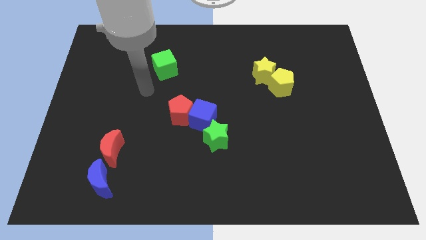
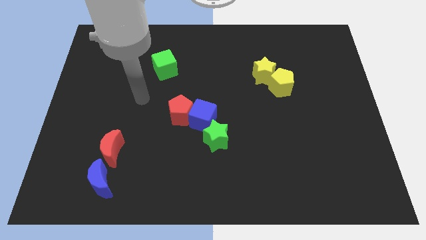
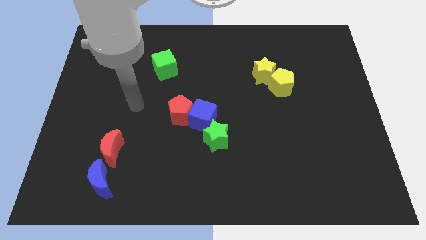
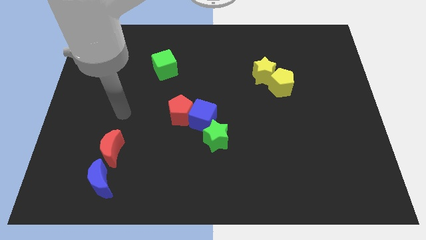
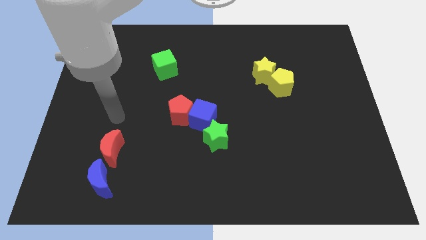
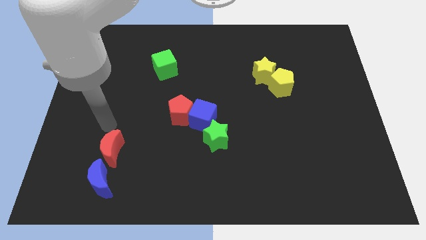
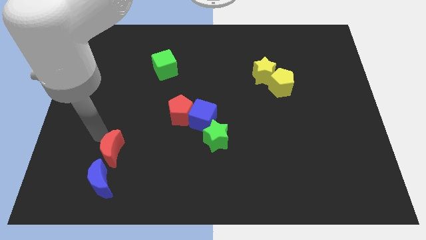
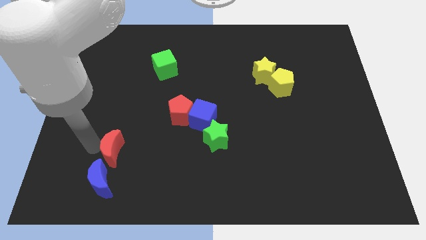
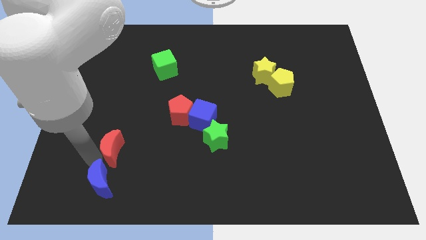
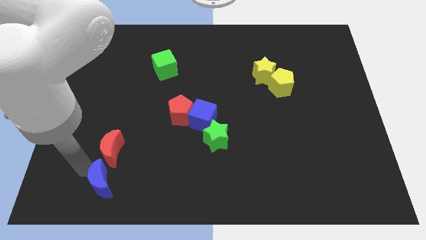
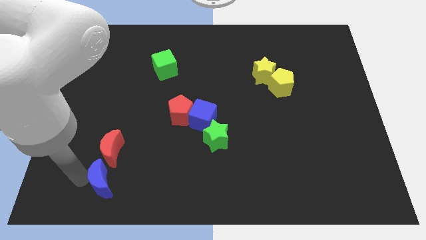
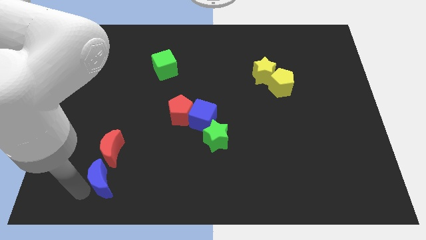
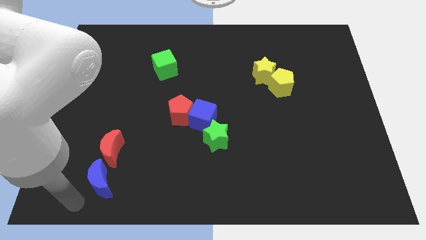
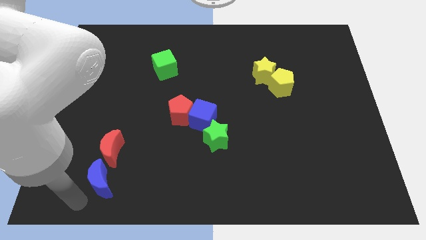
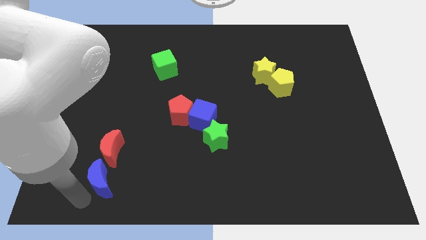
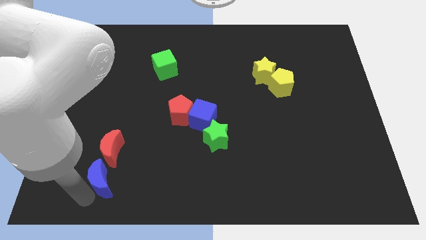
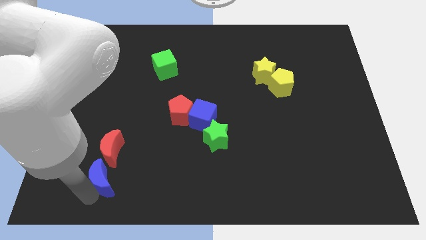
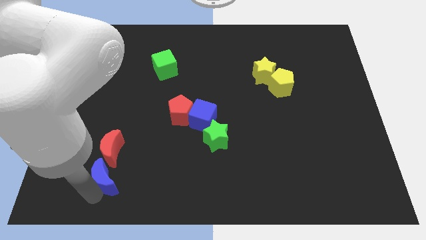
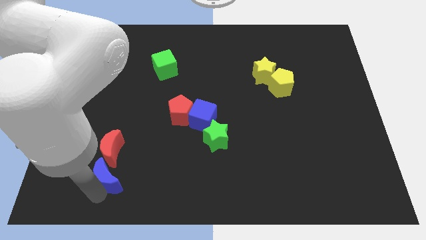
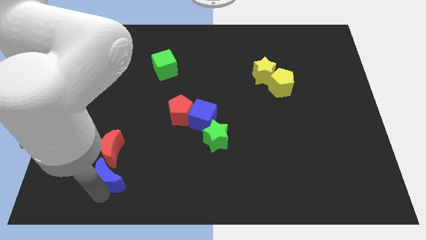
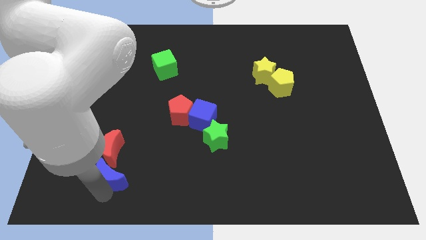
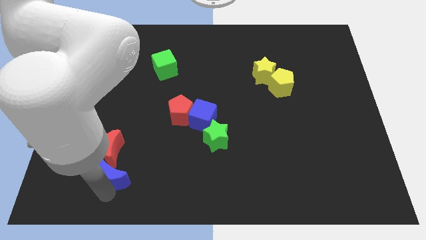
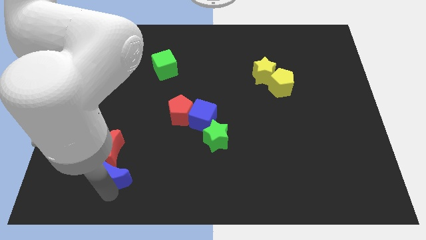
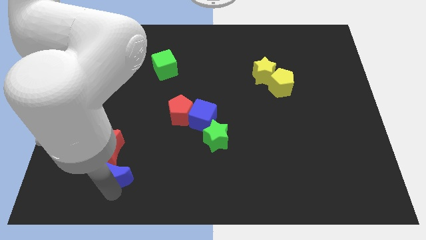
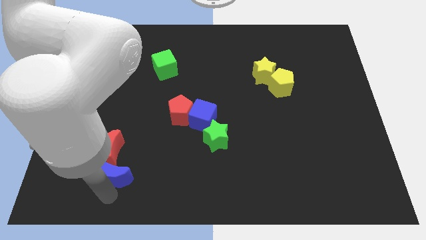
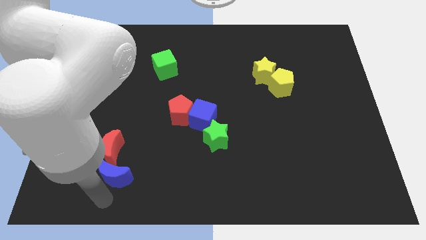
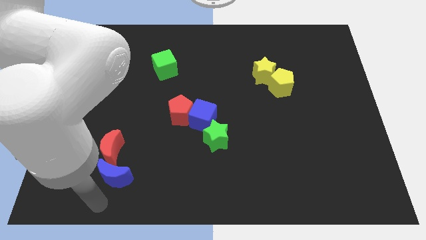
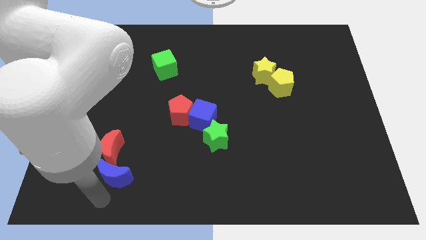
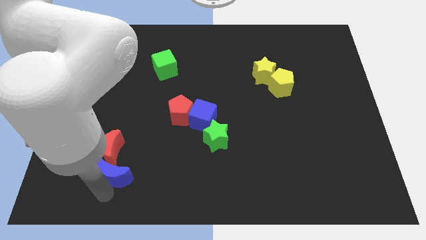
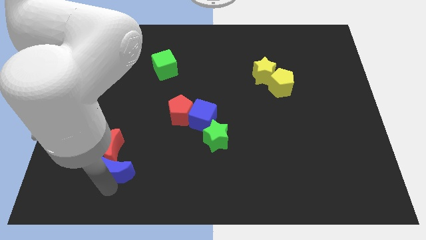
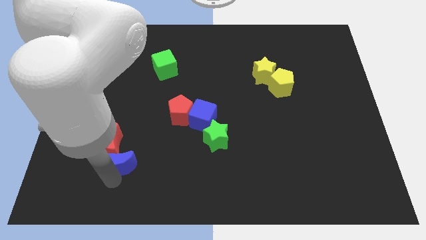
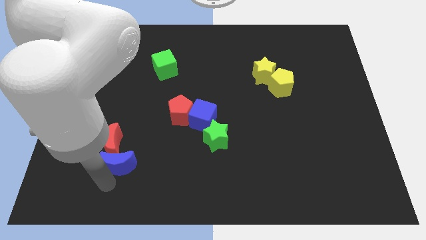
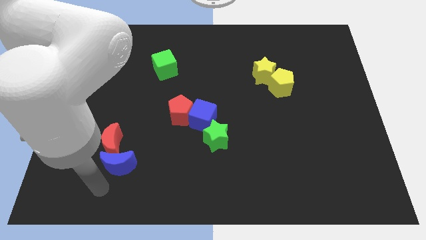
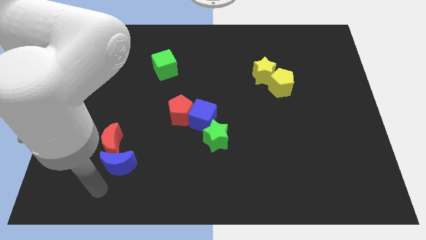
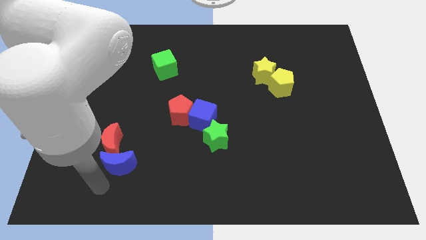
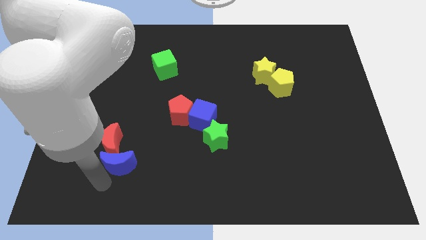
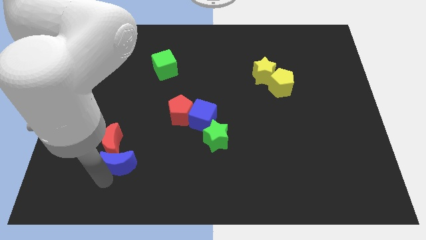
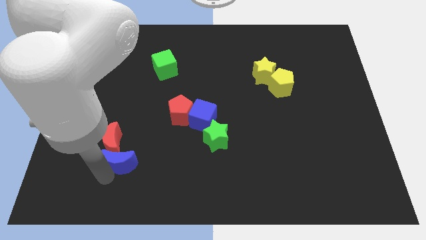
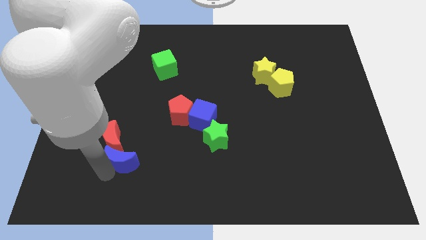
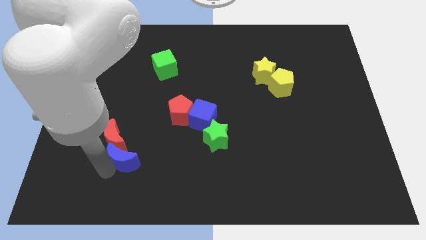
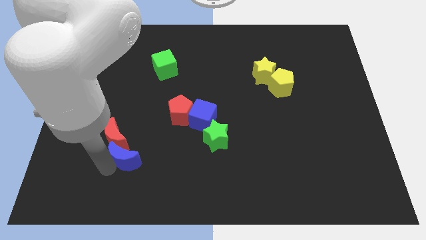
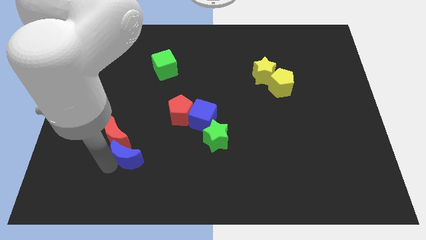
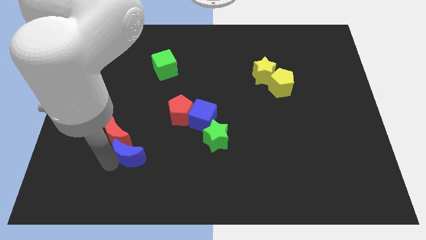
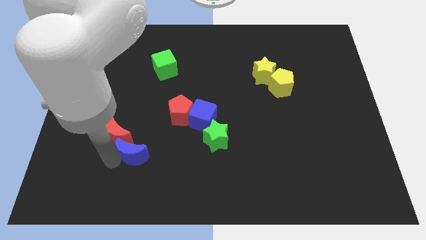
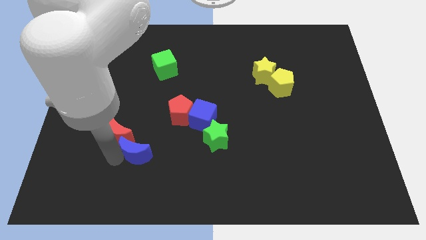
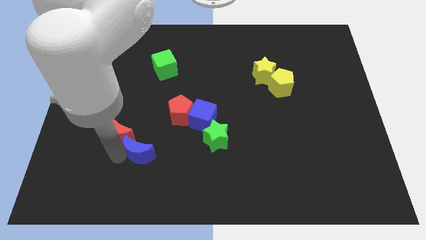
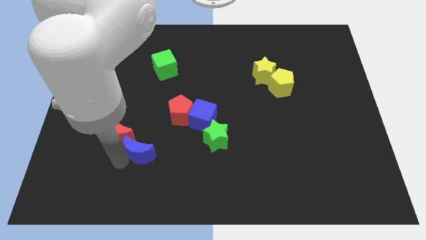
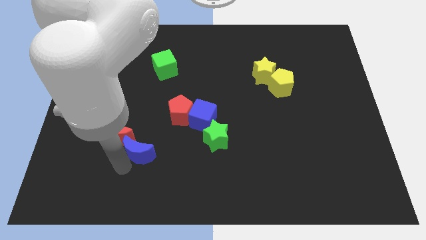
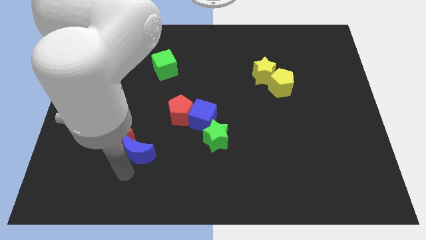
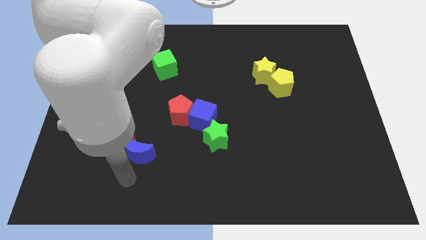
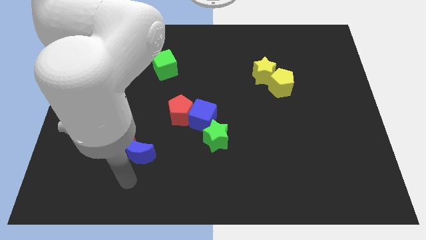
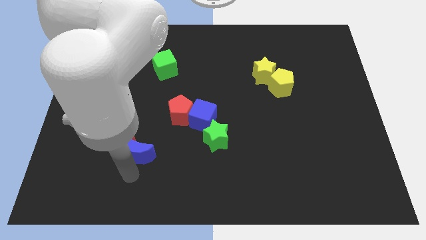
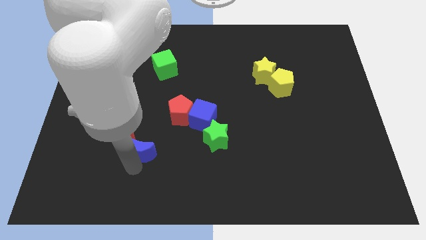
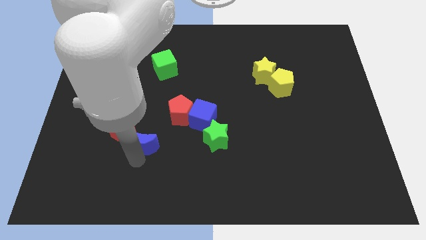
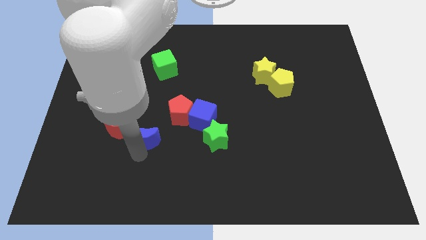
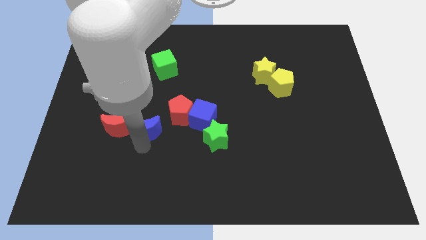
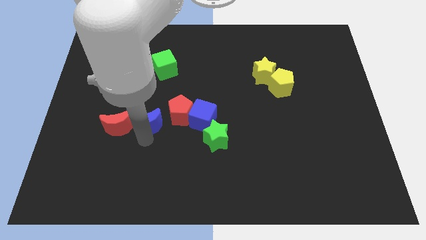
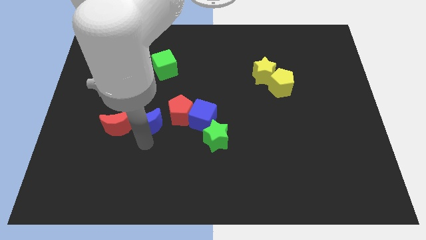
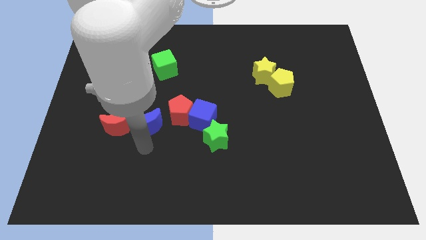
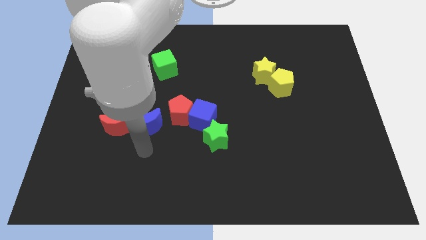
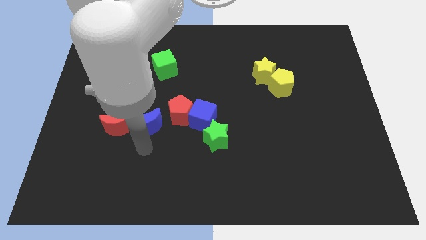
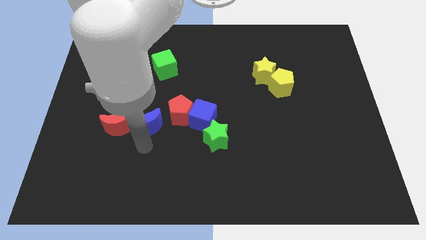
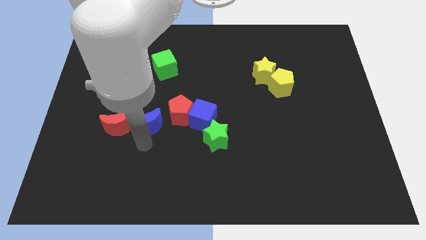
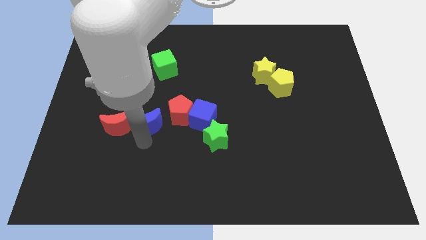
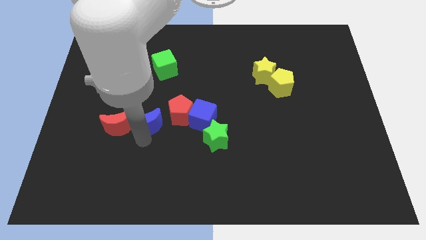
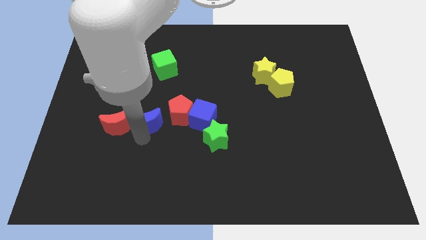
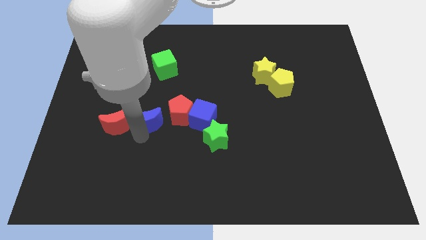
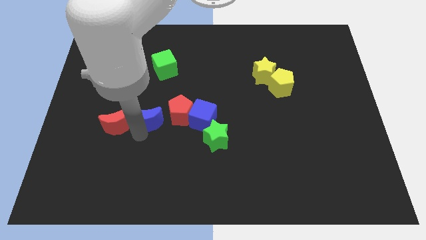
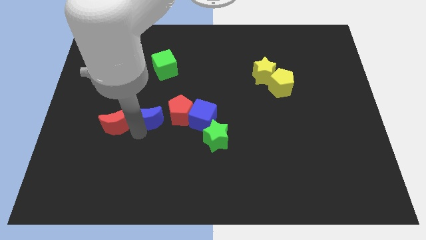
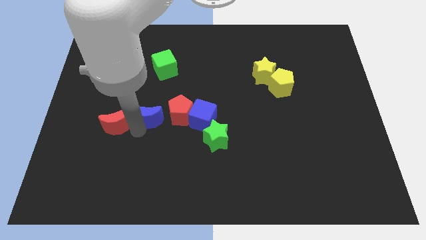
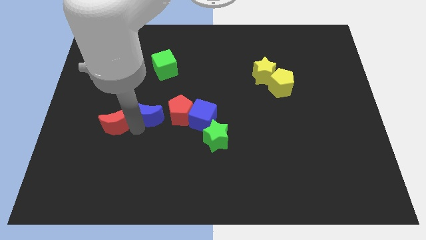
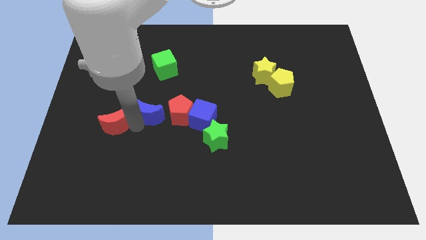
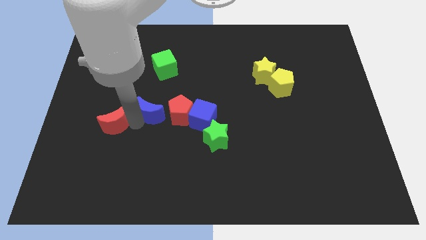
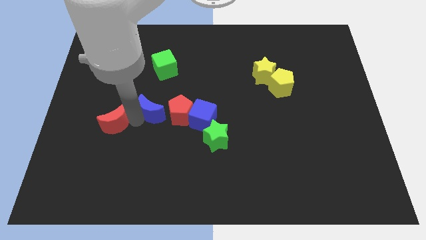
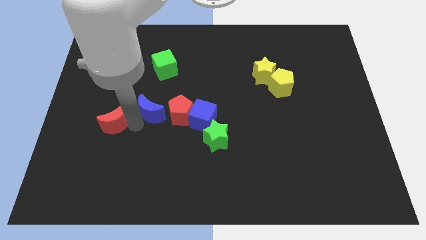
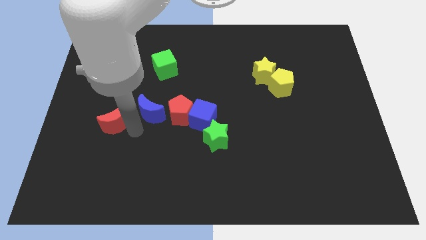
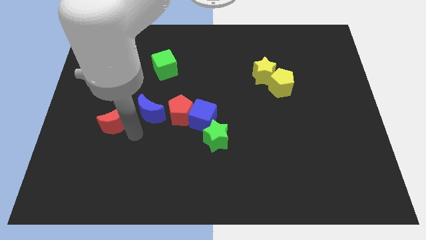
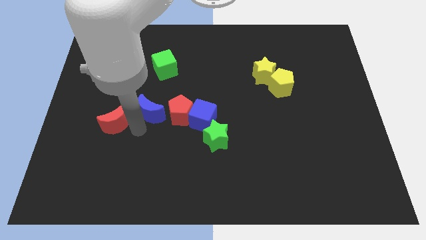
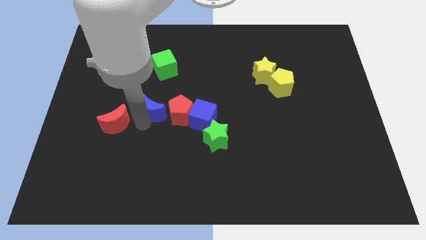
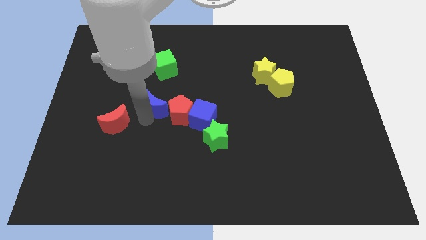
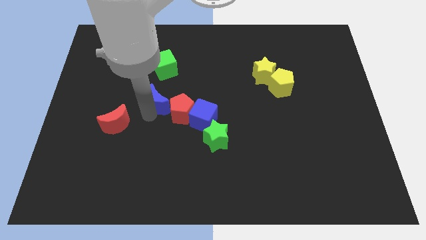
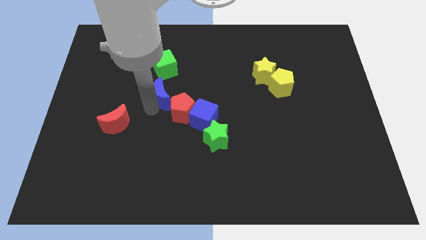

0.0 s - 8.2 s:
push the blue moon upwards and to the right
